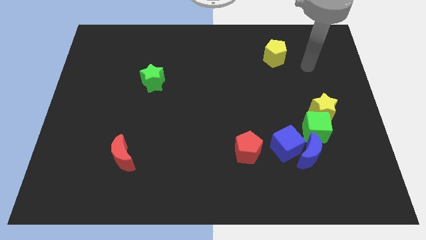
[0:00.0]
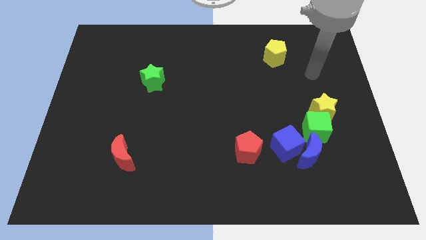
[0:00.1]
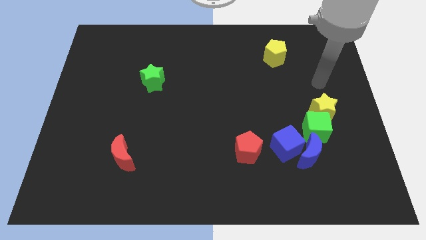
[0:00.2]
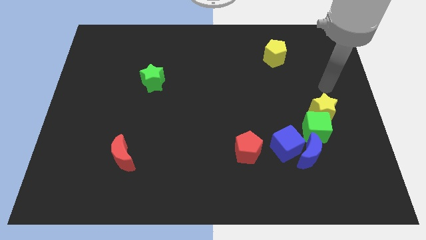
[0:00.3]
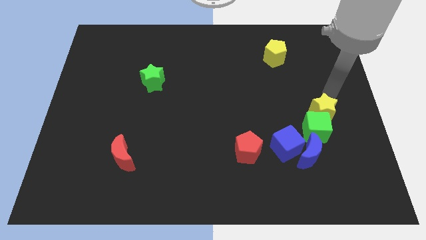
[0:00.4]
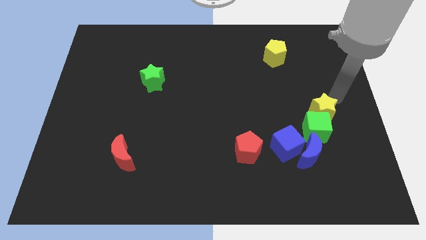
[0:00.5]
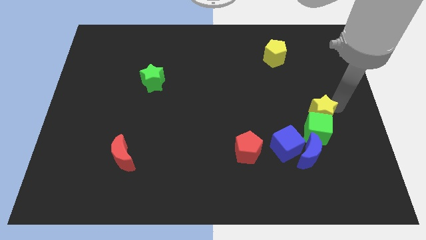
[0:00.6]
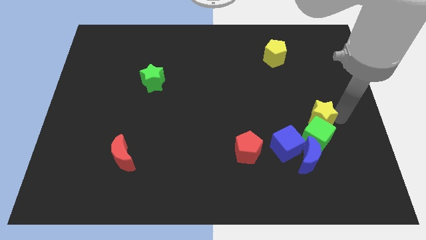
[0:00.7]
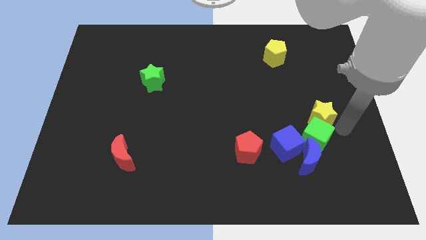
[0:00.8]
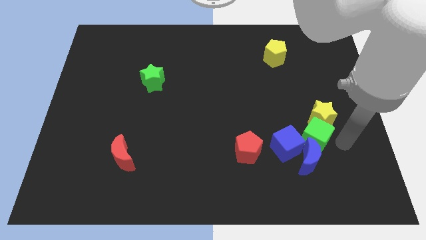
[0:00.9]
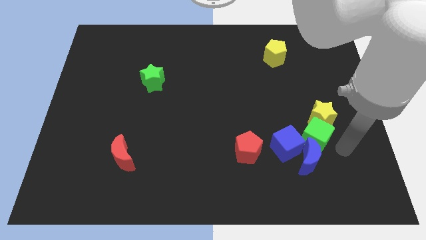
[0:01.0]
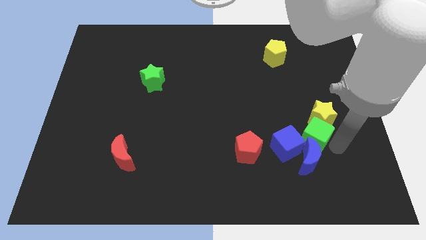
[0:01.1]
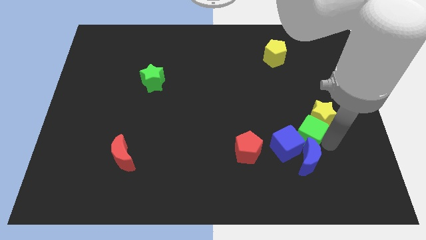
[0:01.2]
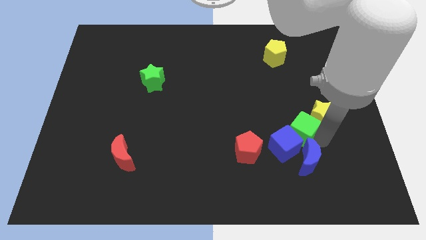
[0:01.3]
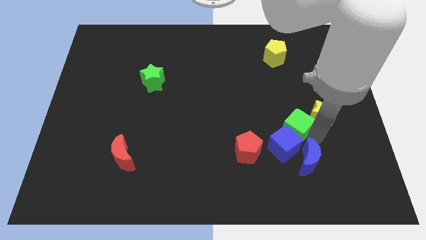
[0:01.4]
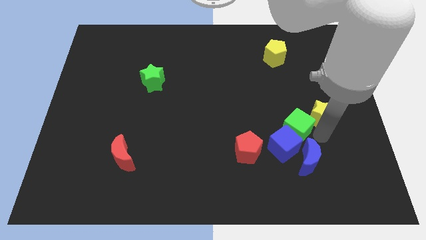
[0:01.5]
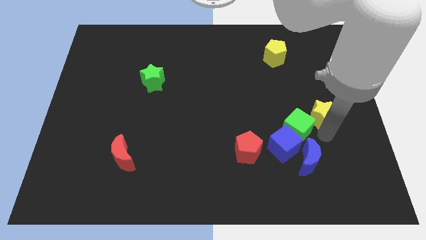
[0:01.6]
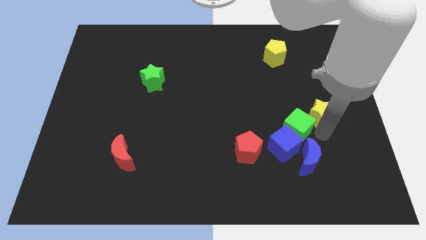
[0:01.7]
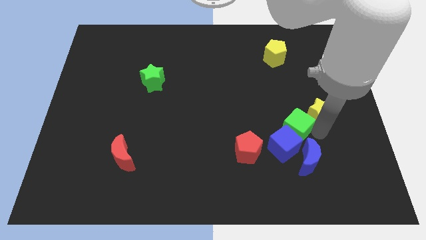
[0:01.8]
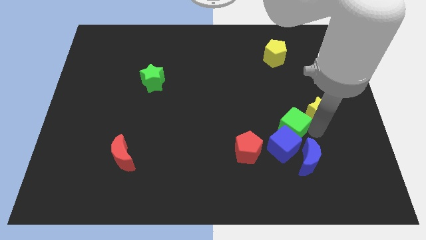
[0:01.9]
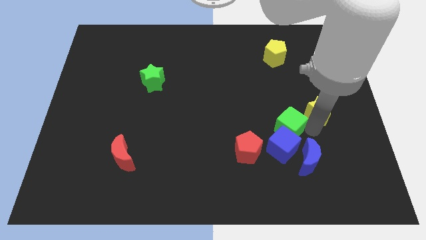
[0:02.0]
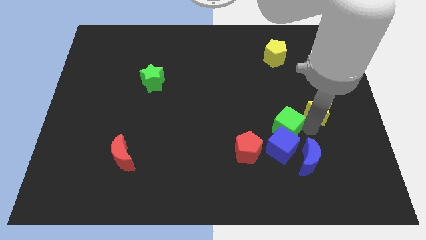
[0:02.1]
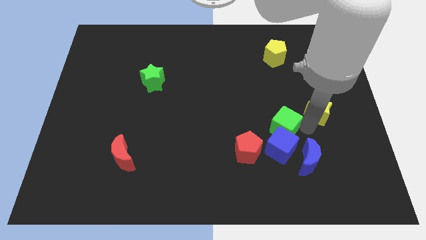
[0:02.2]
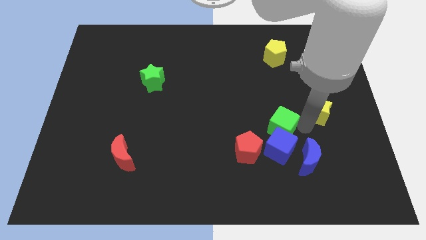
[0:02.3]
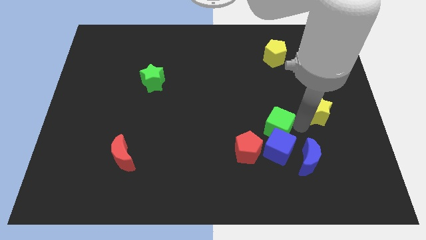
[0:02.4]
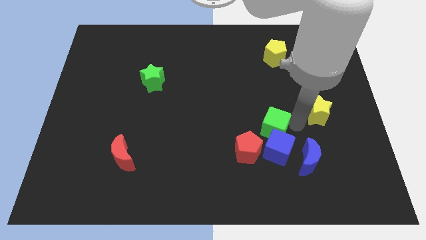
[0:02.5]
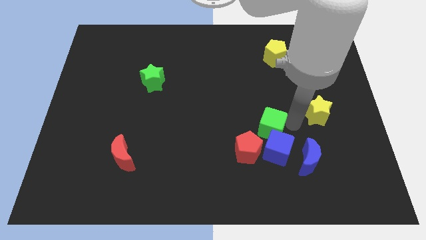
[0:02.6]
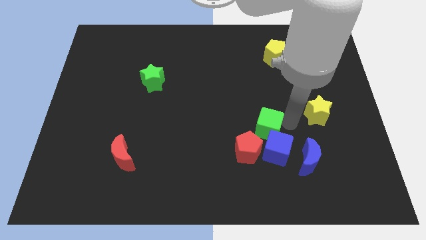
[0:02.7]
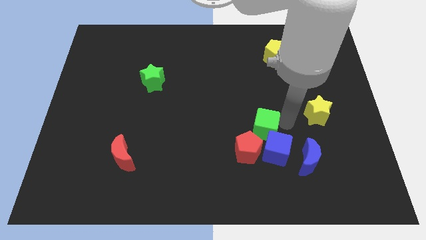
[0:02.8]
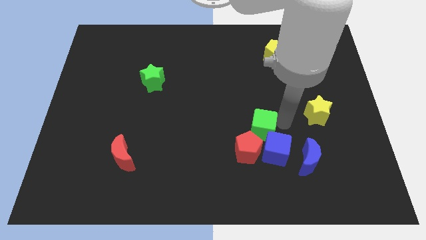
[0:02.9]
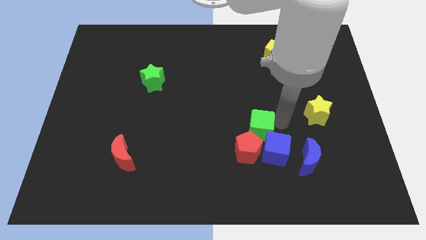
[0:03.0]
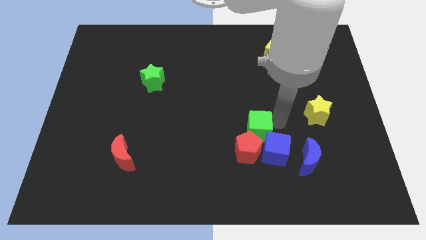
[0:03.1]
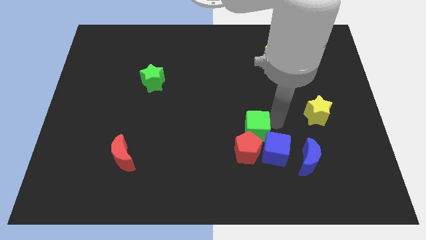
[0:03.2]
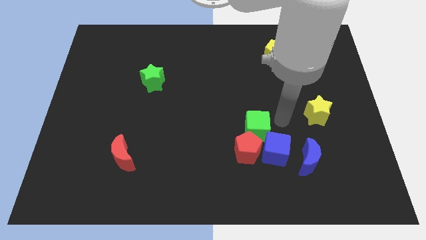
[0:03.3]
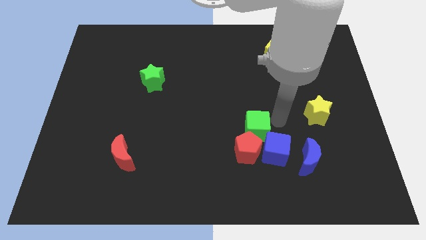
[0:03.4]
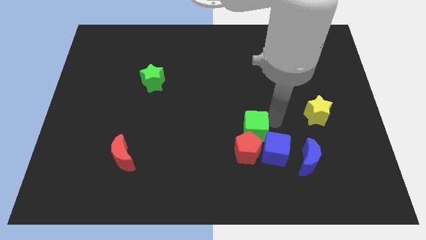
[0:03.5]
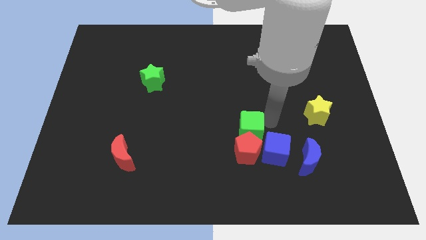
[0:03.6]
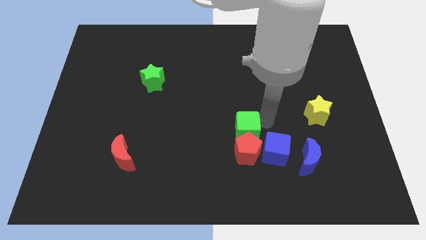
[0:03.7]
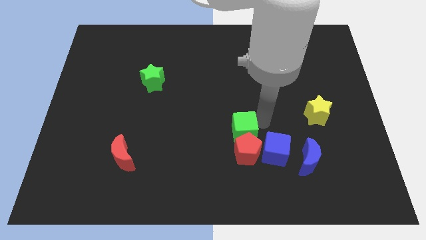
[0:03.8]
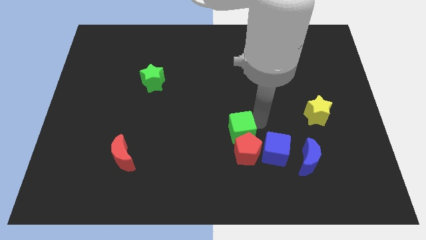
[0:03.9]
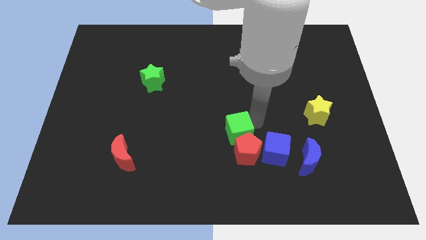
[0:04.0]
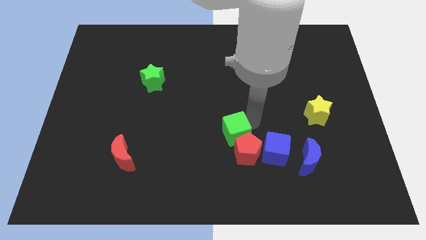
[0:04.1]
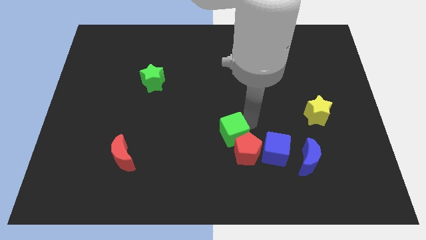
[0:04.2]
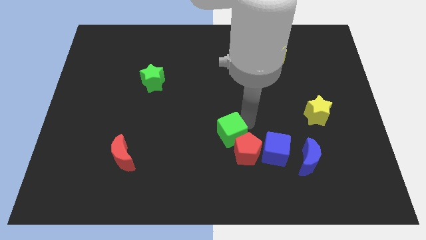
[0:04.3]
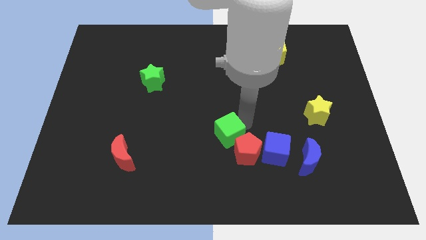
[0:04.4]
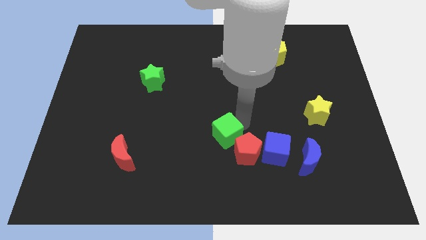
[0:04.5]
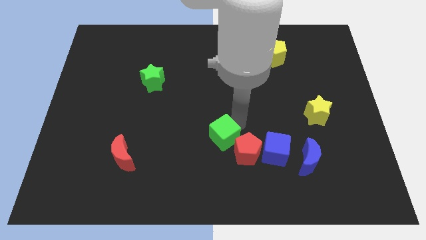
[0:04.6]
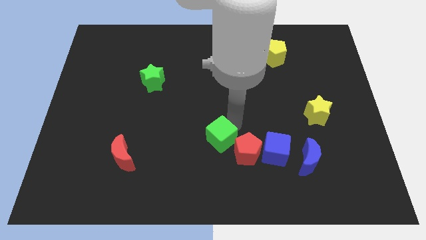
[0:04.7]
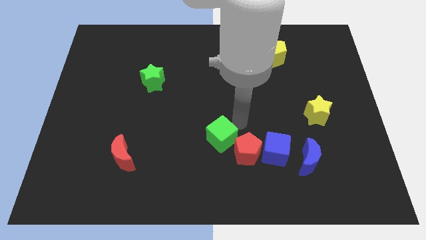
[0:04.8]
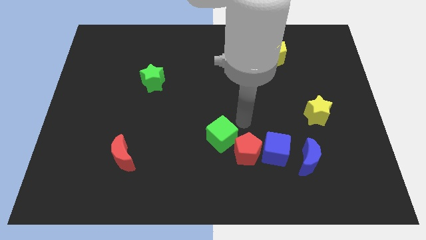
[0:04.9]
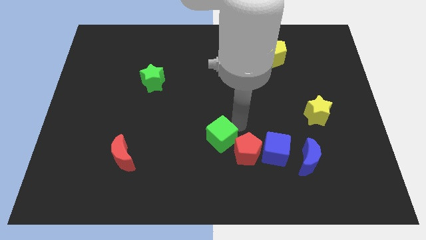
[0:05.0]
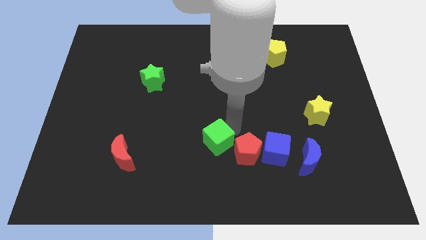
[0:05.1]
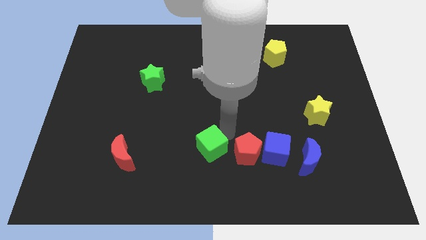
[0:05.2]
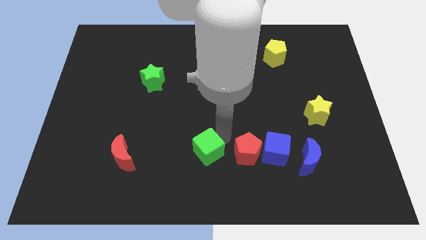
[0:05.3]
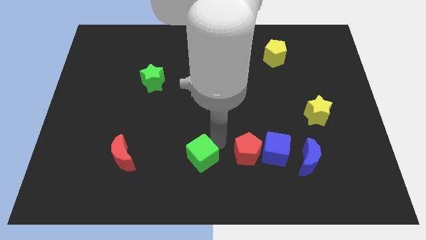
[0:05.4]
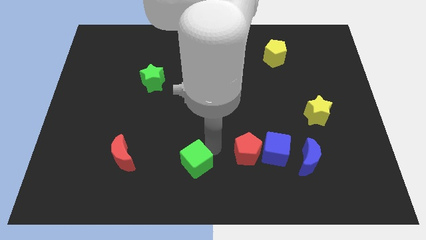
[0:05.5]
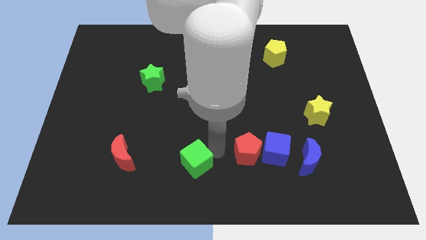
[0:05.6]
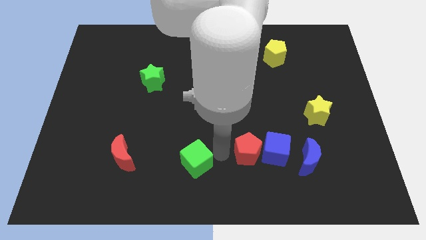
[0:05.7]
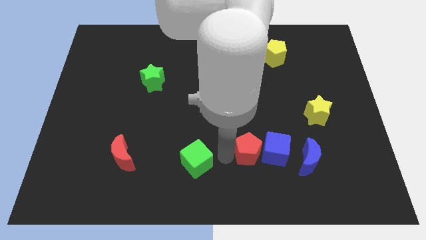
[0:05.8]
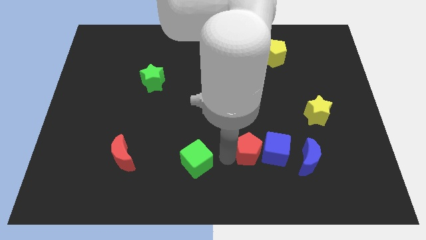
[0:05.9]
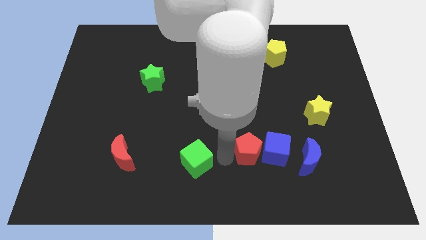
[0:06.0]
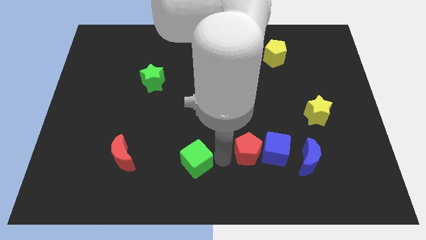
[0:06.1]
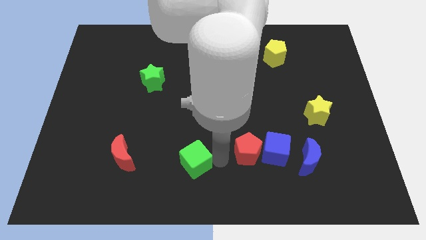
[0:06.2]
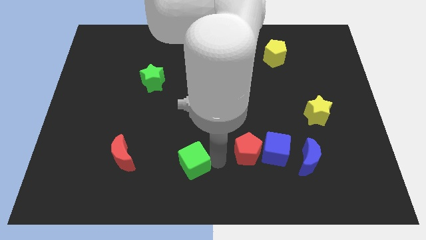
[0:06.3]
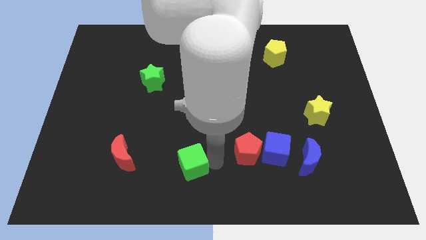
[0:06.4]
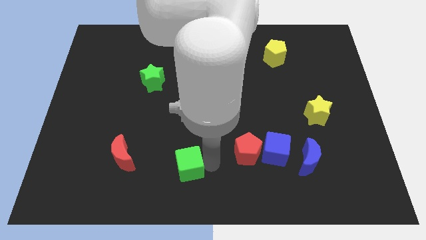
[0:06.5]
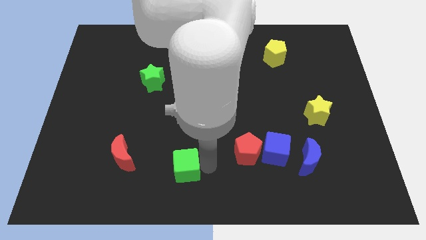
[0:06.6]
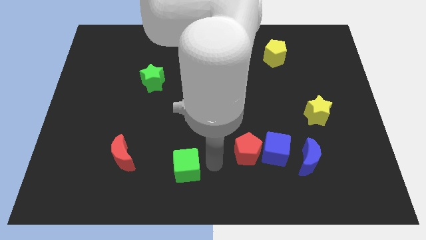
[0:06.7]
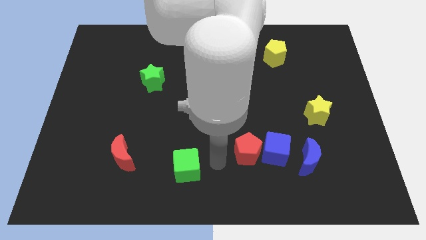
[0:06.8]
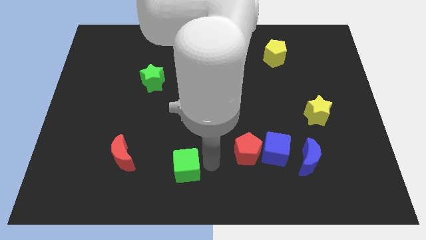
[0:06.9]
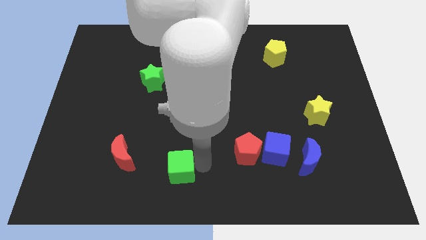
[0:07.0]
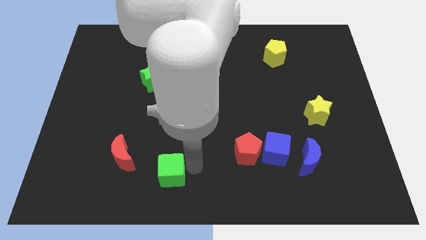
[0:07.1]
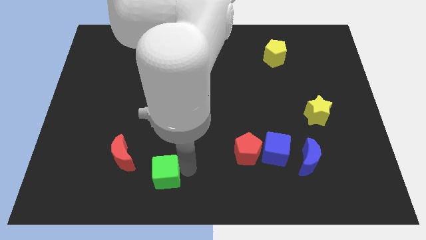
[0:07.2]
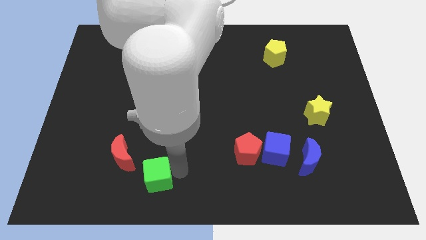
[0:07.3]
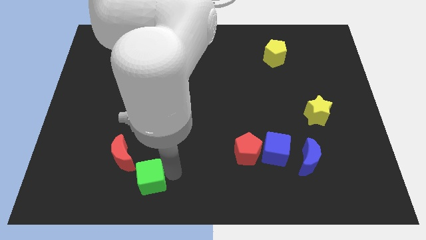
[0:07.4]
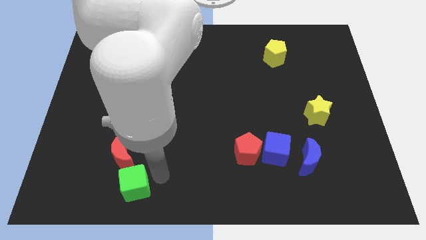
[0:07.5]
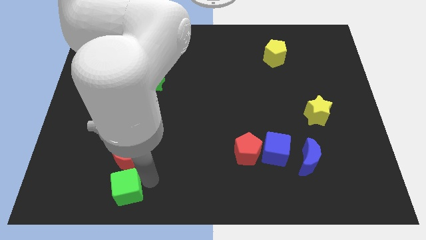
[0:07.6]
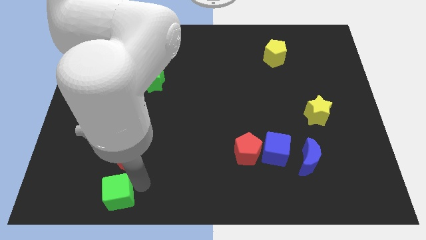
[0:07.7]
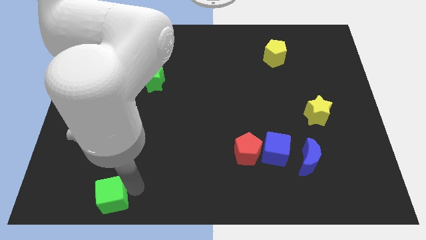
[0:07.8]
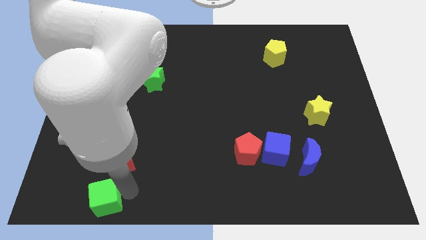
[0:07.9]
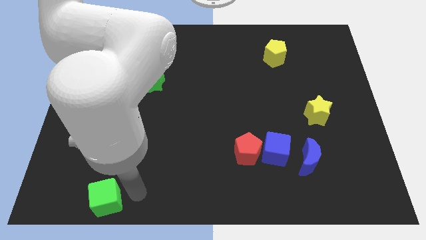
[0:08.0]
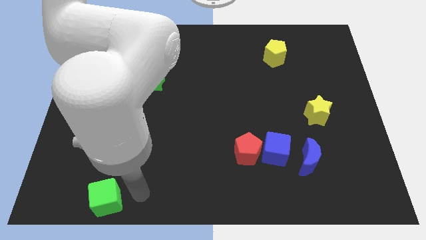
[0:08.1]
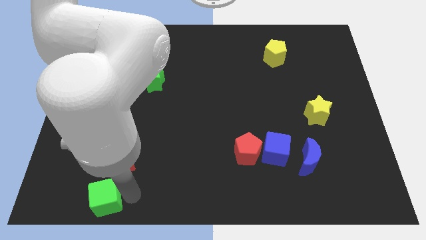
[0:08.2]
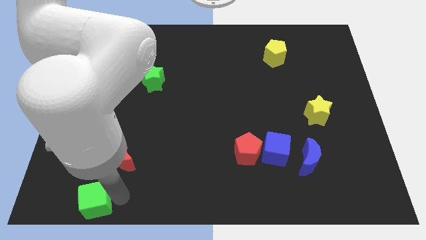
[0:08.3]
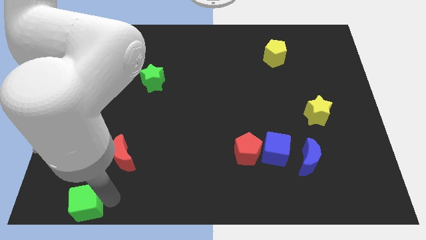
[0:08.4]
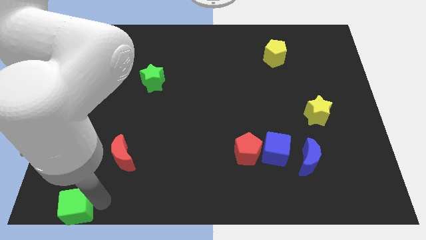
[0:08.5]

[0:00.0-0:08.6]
slide the green cube to the bottom left
